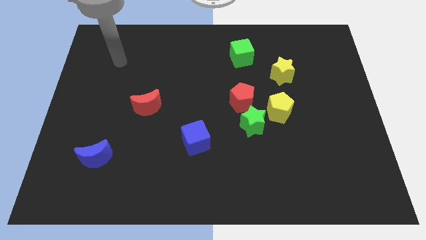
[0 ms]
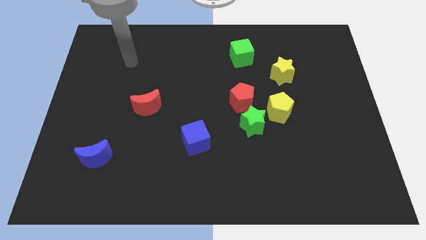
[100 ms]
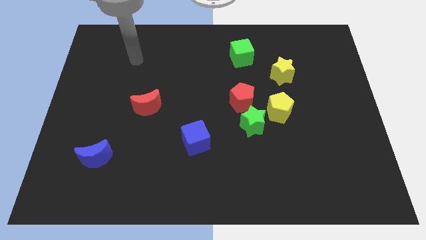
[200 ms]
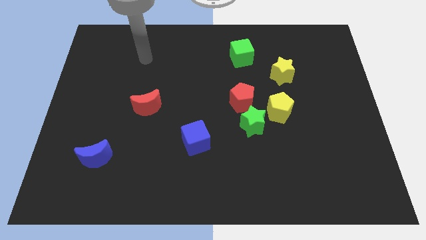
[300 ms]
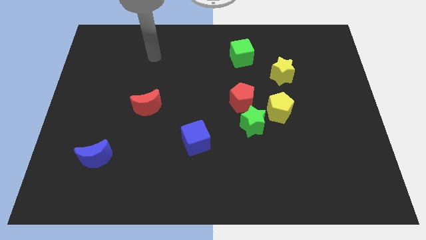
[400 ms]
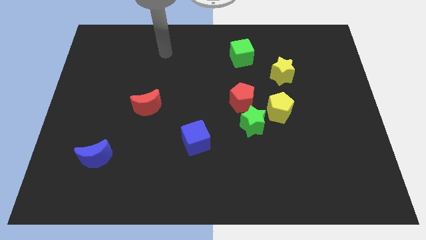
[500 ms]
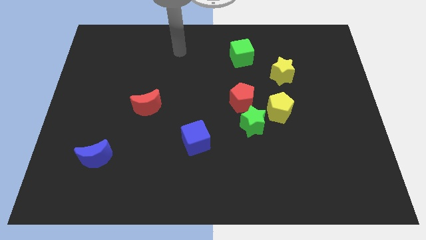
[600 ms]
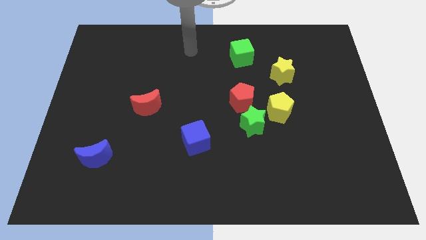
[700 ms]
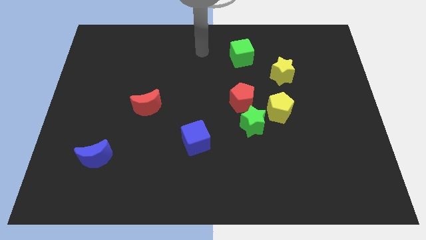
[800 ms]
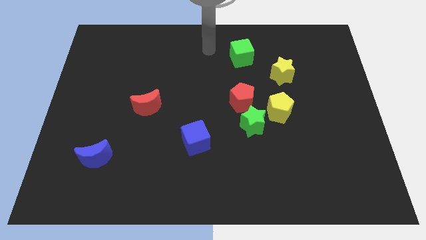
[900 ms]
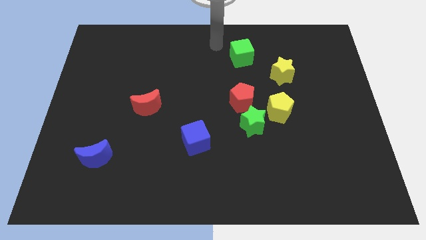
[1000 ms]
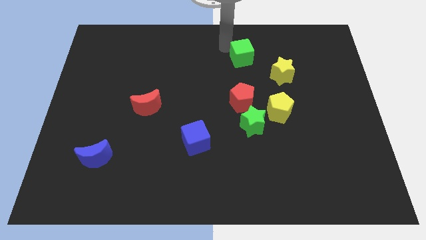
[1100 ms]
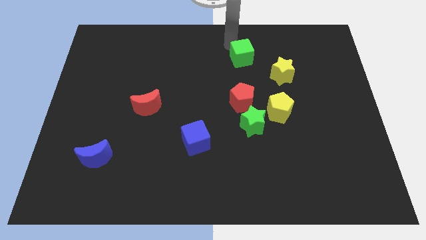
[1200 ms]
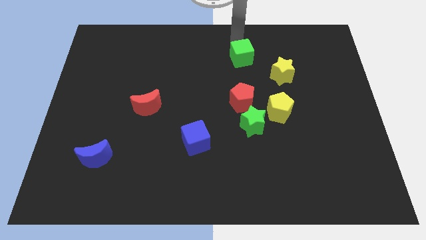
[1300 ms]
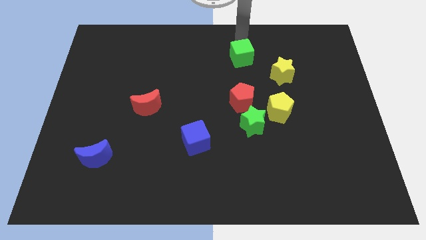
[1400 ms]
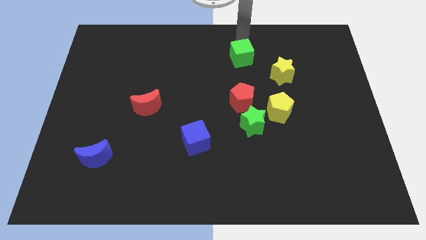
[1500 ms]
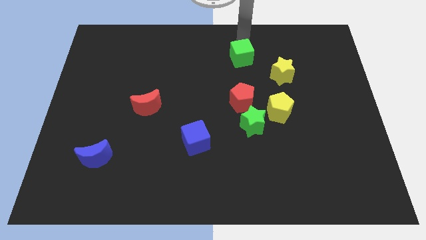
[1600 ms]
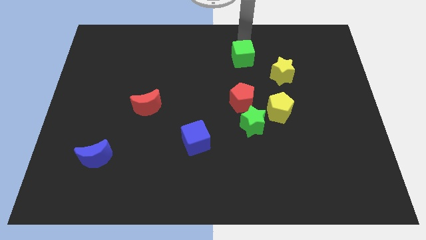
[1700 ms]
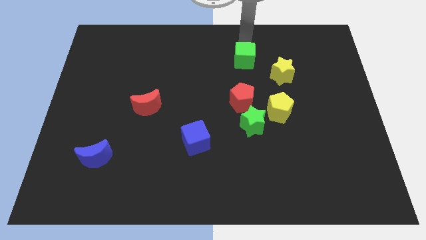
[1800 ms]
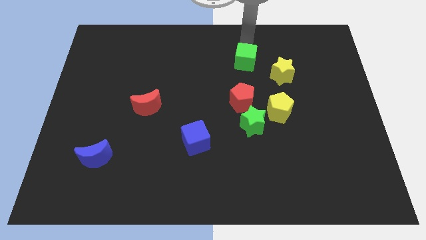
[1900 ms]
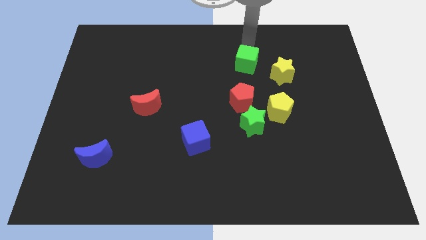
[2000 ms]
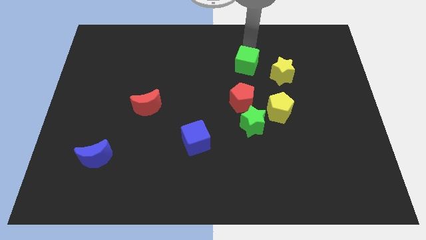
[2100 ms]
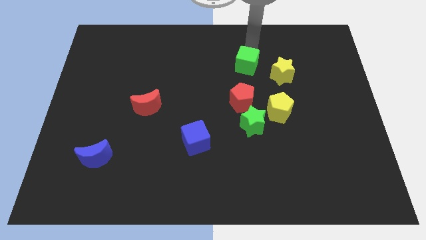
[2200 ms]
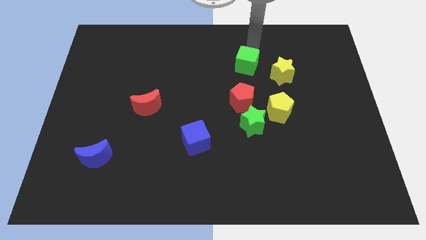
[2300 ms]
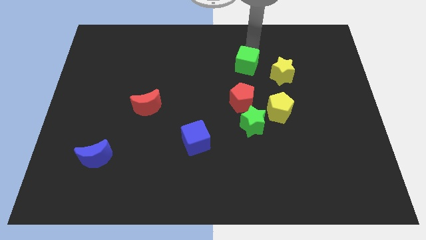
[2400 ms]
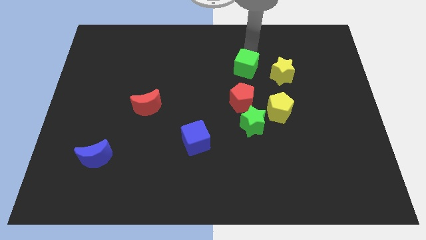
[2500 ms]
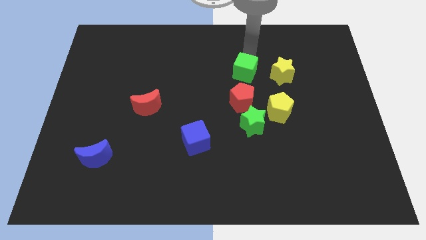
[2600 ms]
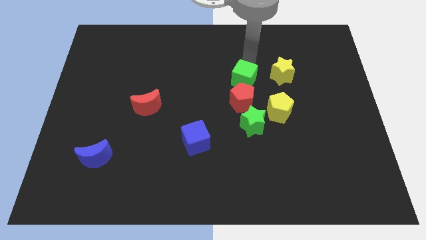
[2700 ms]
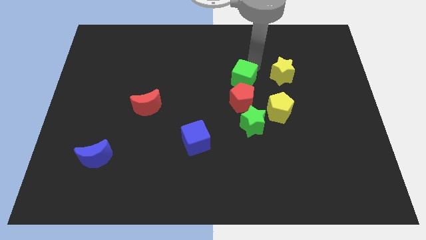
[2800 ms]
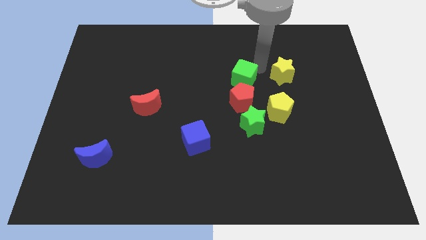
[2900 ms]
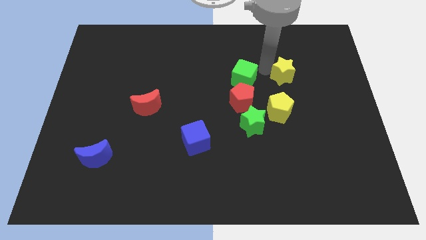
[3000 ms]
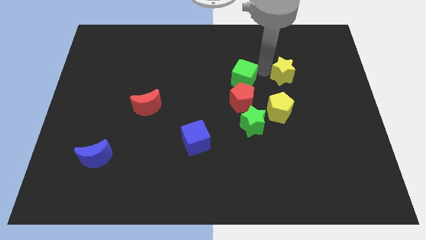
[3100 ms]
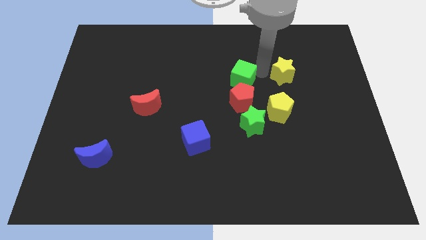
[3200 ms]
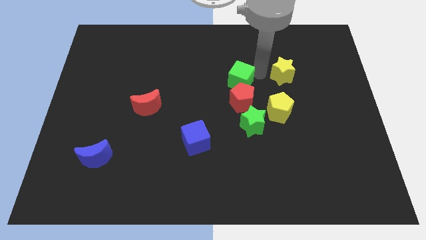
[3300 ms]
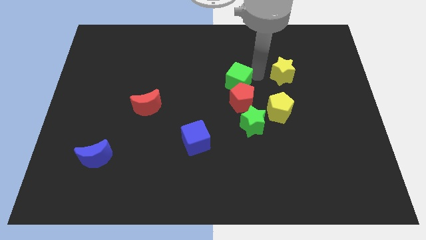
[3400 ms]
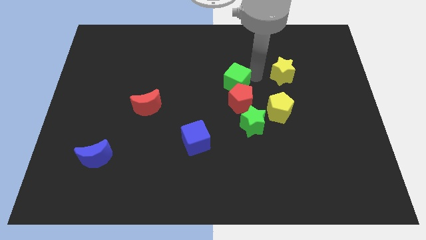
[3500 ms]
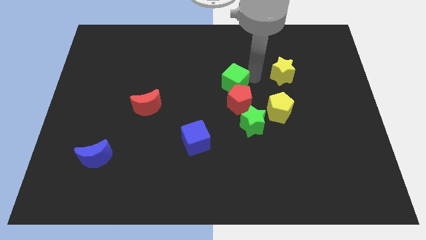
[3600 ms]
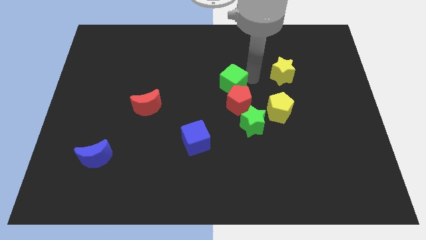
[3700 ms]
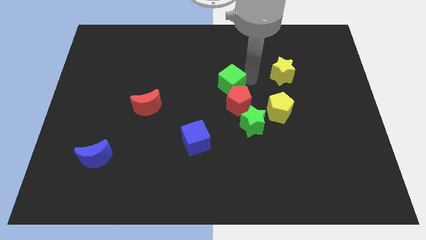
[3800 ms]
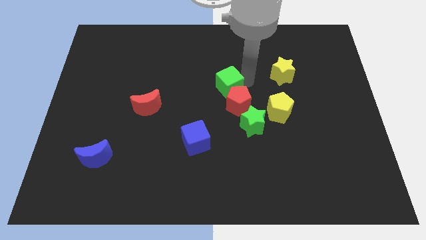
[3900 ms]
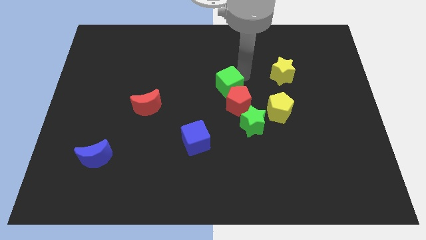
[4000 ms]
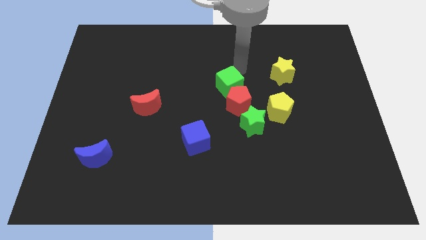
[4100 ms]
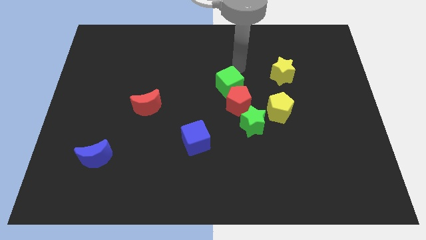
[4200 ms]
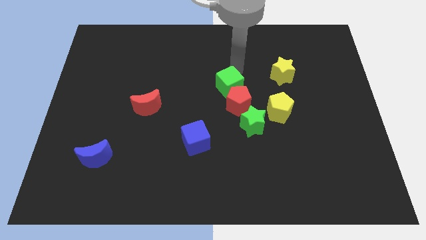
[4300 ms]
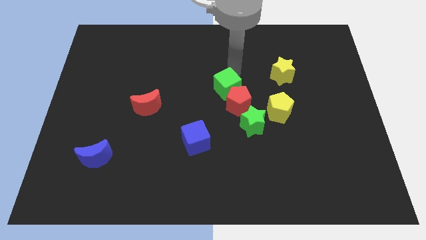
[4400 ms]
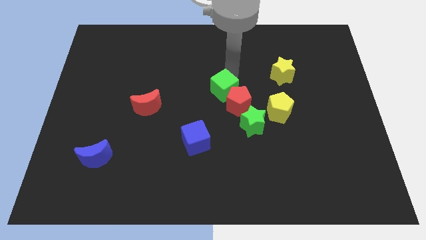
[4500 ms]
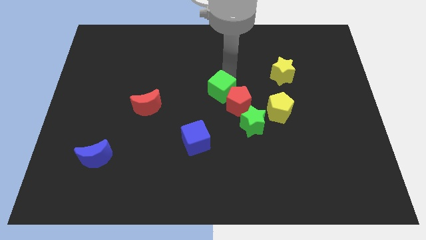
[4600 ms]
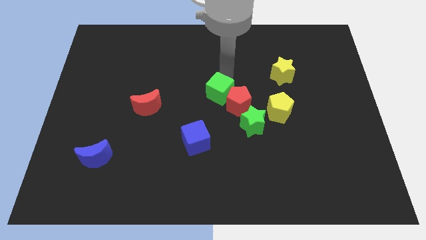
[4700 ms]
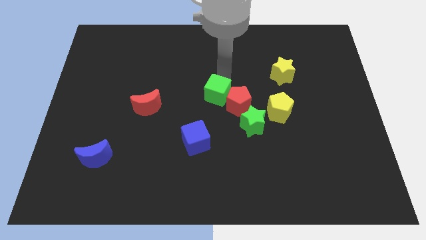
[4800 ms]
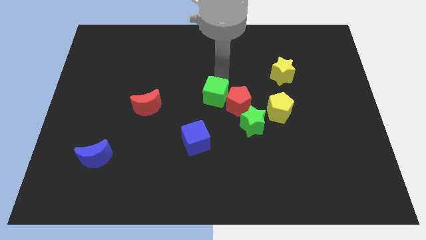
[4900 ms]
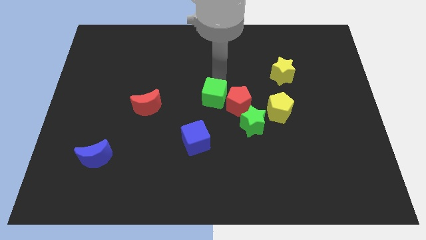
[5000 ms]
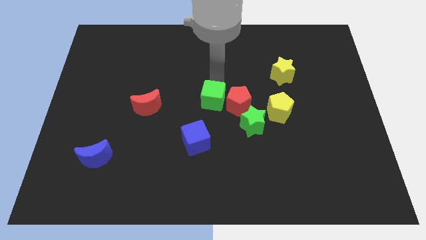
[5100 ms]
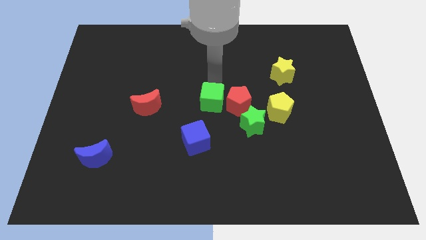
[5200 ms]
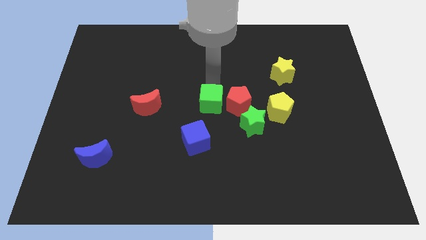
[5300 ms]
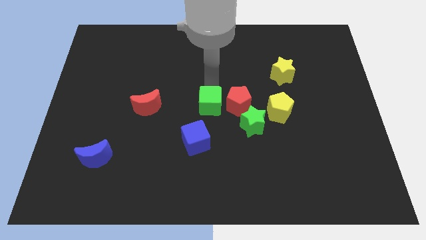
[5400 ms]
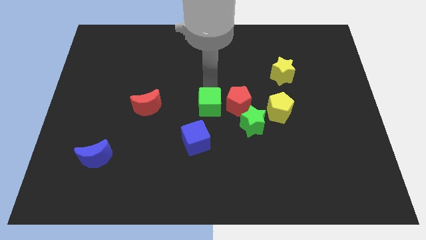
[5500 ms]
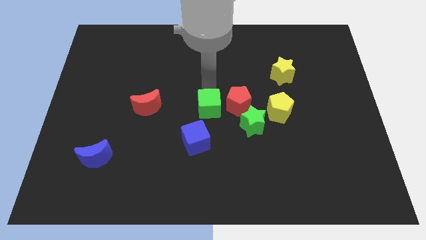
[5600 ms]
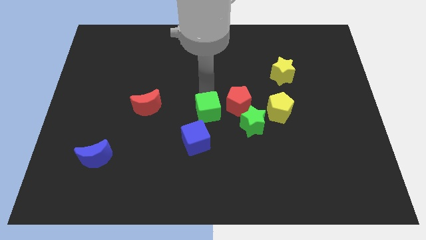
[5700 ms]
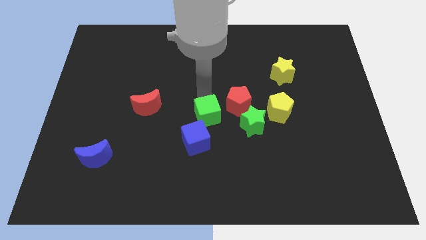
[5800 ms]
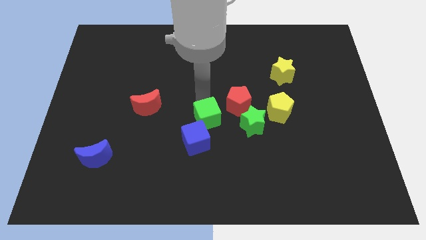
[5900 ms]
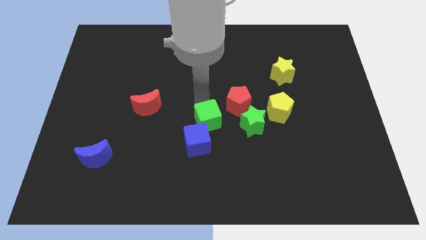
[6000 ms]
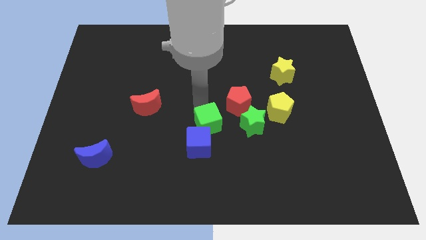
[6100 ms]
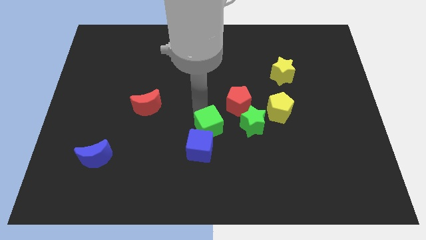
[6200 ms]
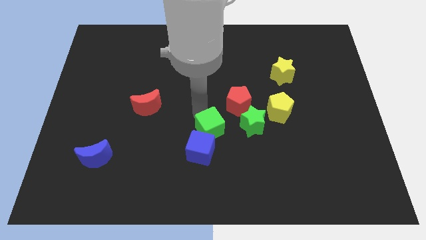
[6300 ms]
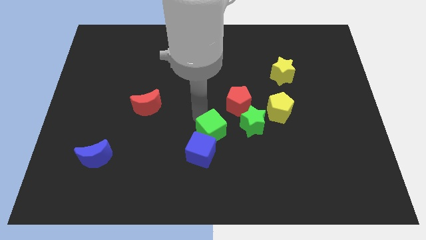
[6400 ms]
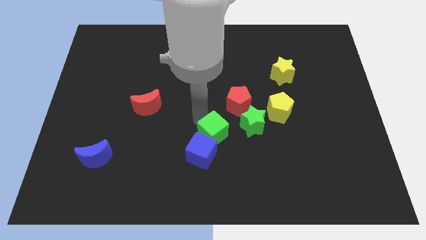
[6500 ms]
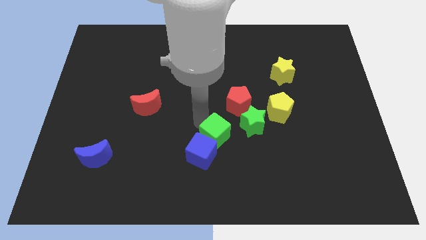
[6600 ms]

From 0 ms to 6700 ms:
slide the green cube to the bottom left side of the green star

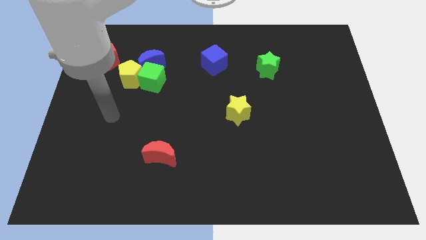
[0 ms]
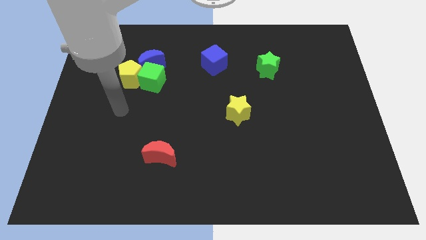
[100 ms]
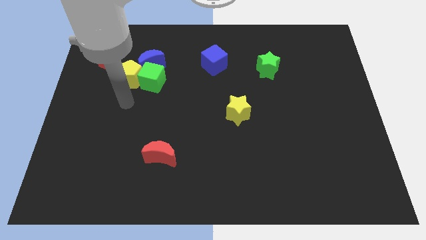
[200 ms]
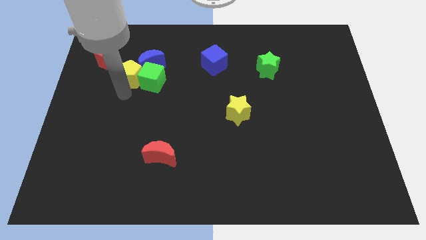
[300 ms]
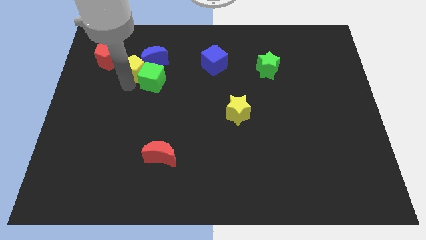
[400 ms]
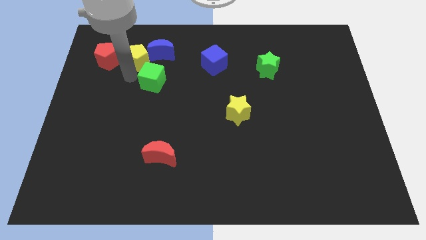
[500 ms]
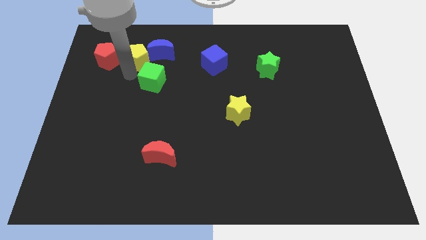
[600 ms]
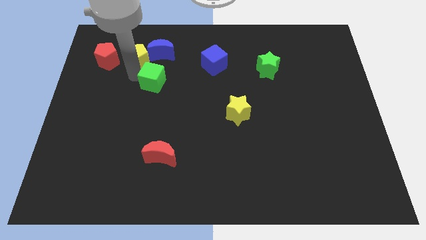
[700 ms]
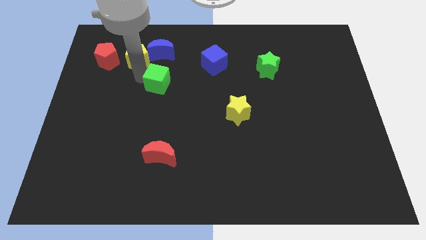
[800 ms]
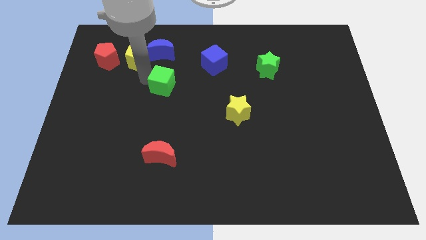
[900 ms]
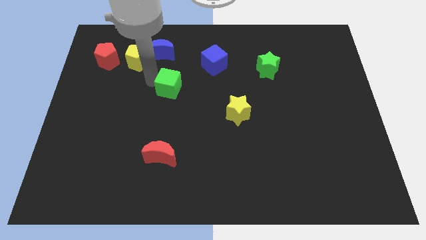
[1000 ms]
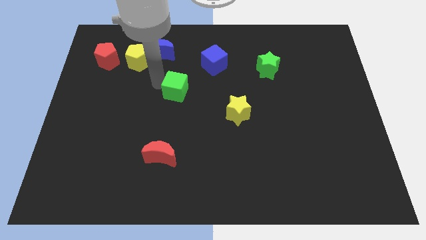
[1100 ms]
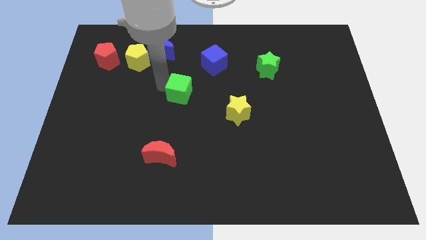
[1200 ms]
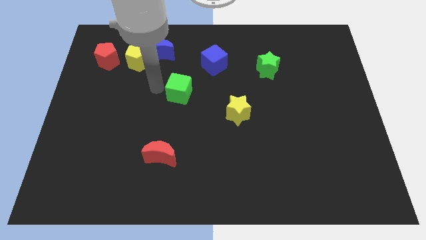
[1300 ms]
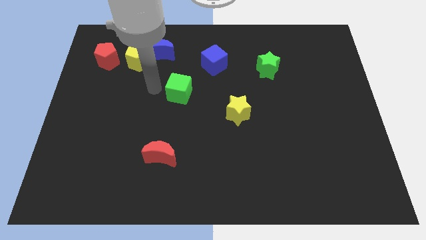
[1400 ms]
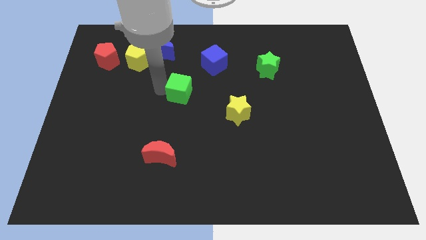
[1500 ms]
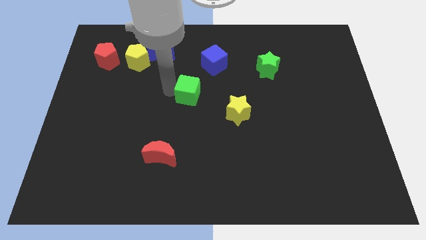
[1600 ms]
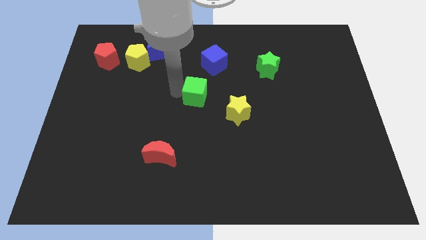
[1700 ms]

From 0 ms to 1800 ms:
move the green cube to the top left side of the yellow star
